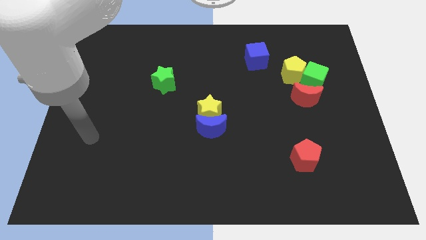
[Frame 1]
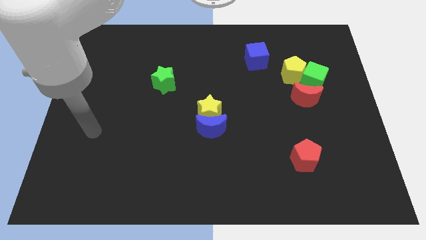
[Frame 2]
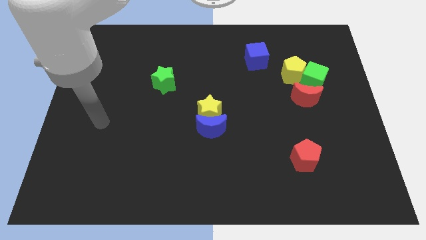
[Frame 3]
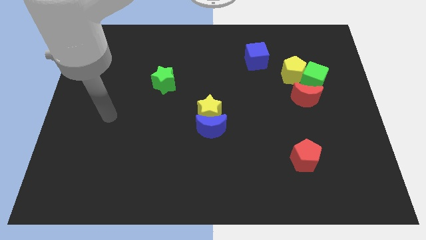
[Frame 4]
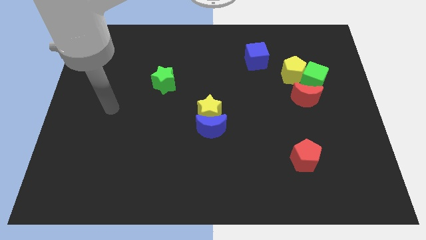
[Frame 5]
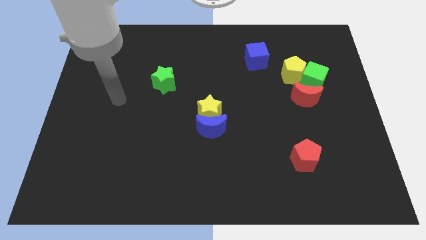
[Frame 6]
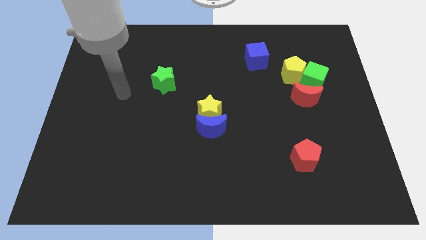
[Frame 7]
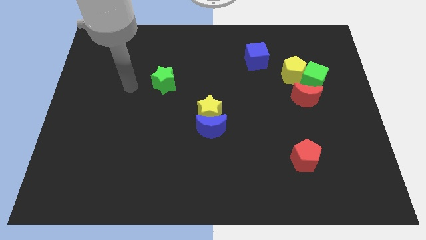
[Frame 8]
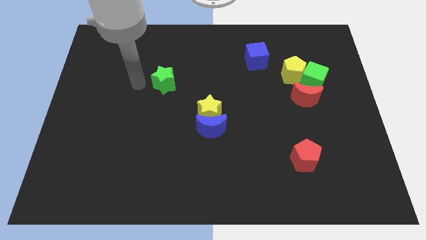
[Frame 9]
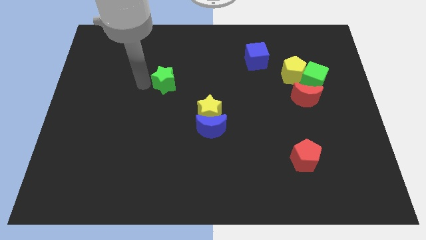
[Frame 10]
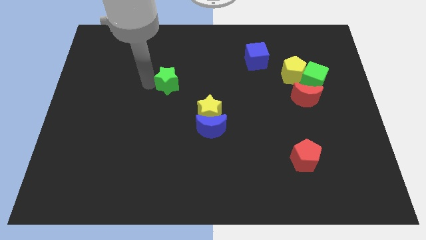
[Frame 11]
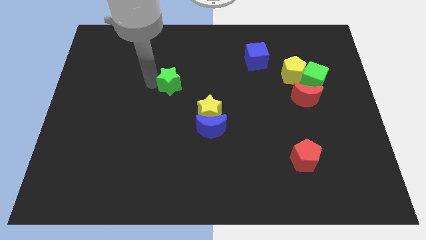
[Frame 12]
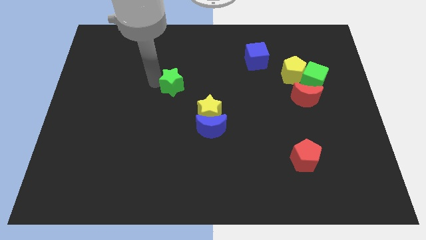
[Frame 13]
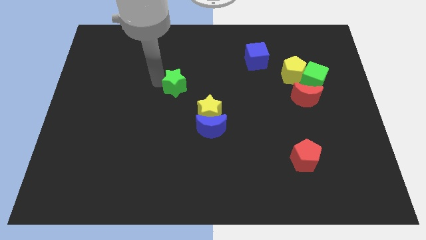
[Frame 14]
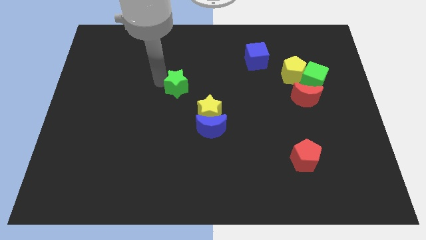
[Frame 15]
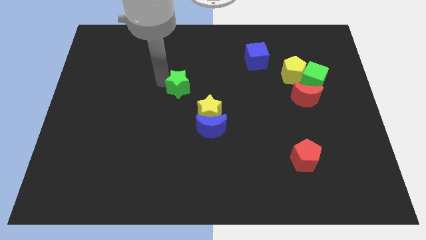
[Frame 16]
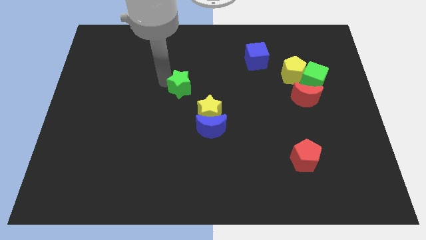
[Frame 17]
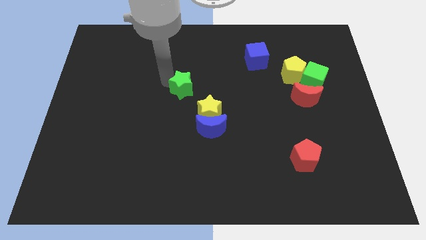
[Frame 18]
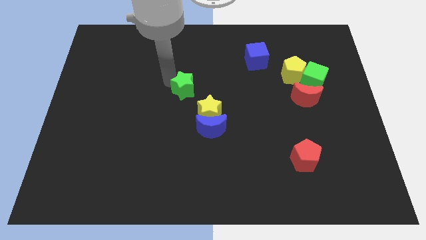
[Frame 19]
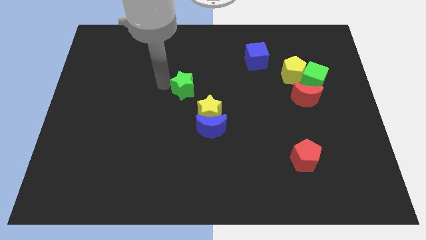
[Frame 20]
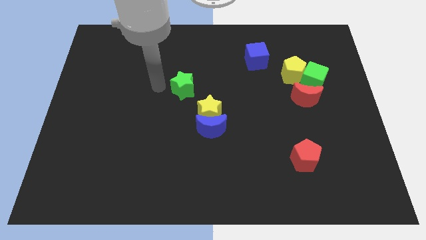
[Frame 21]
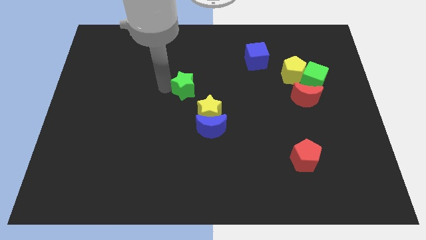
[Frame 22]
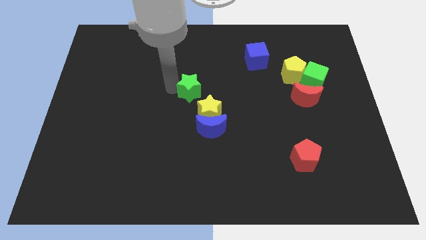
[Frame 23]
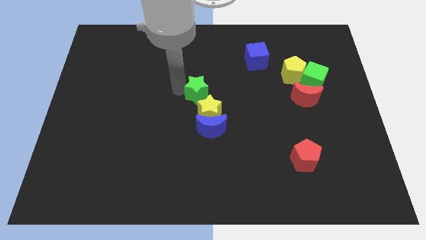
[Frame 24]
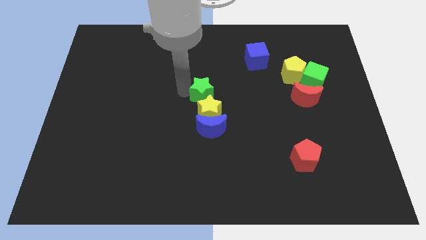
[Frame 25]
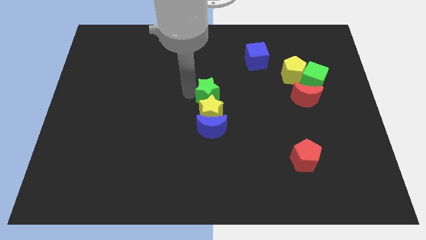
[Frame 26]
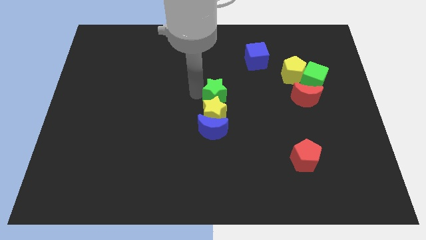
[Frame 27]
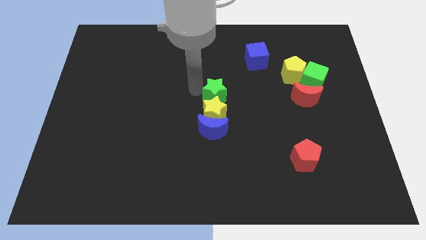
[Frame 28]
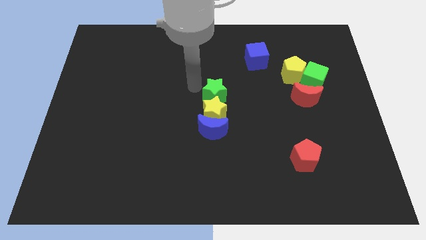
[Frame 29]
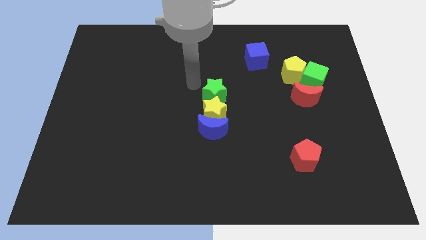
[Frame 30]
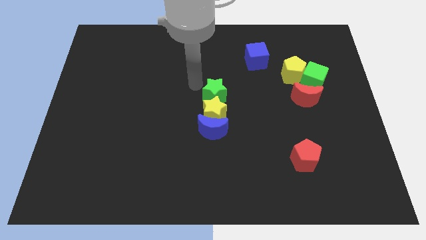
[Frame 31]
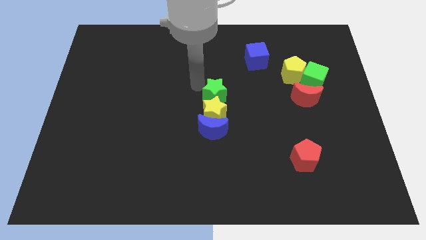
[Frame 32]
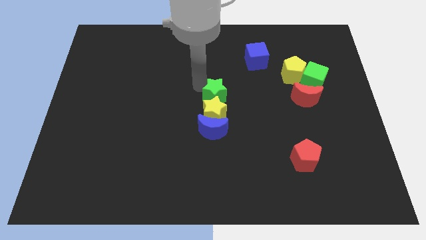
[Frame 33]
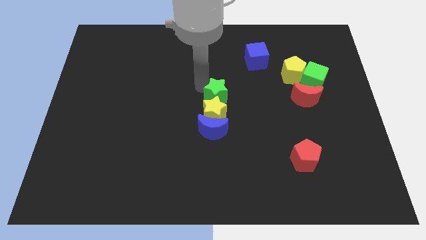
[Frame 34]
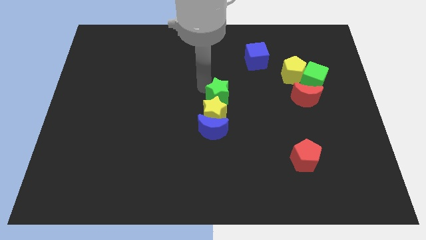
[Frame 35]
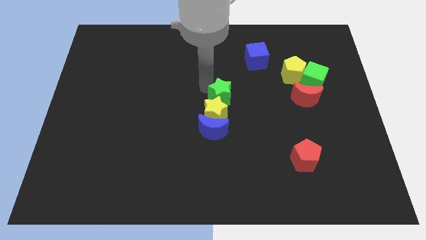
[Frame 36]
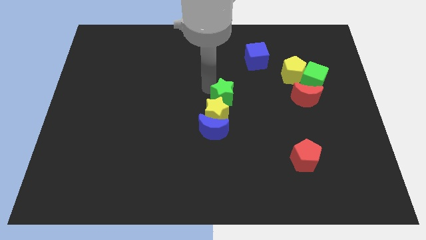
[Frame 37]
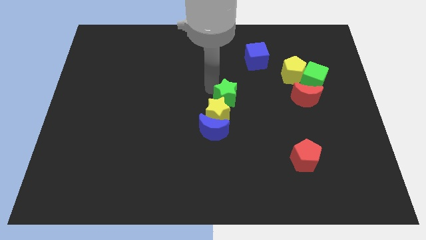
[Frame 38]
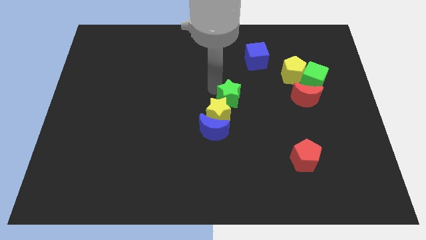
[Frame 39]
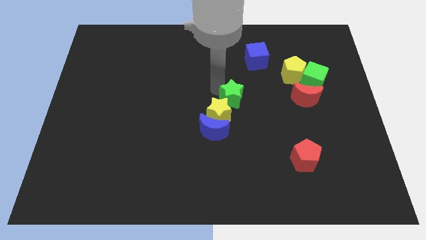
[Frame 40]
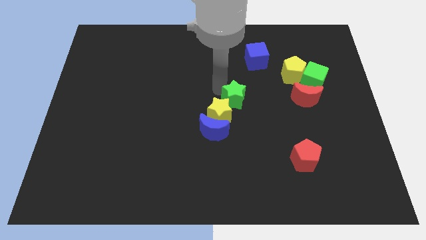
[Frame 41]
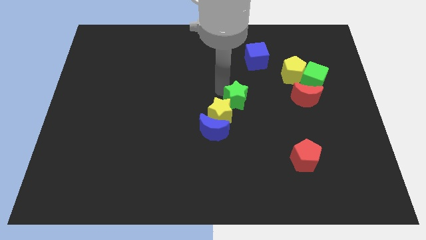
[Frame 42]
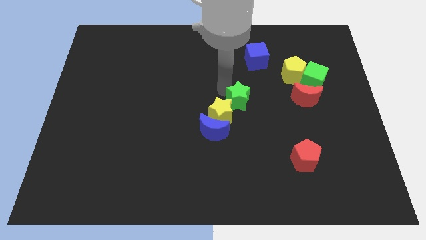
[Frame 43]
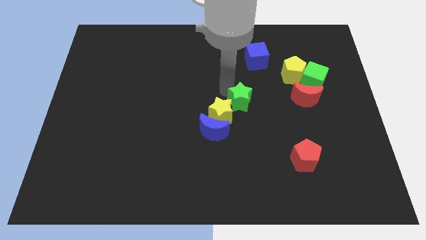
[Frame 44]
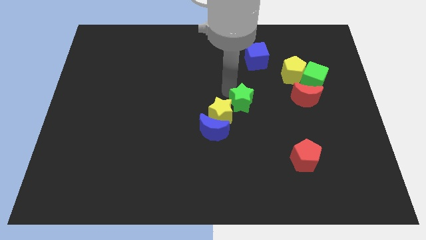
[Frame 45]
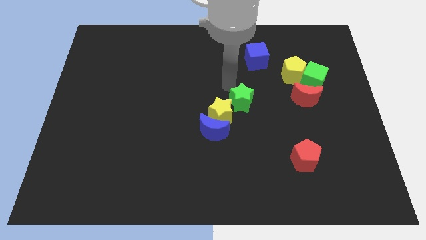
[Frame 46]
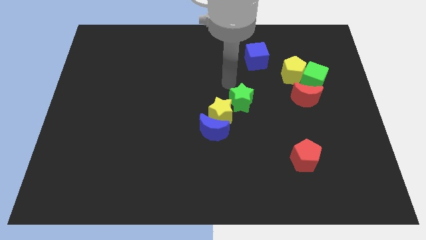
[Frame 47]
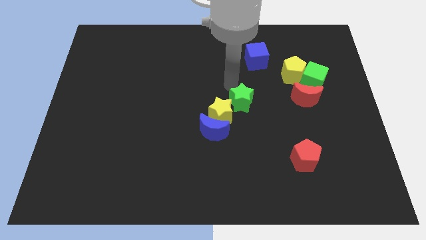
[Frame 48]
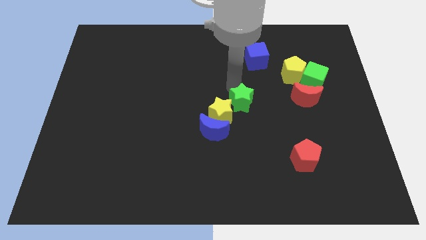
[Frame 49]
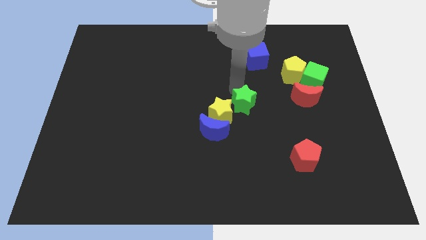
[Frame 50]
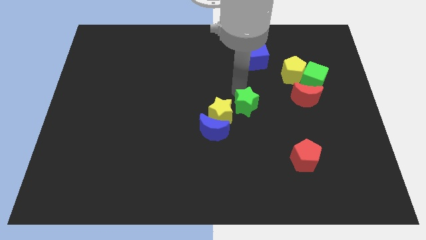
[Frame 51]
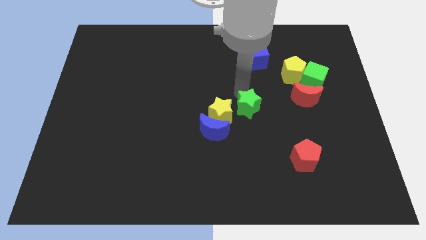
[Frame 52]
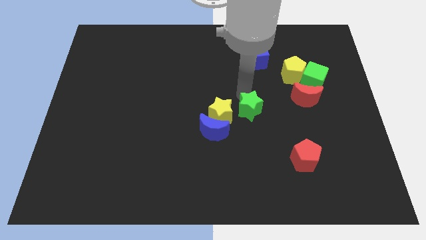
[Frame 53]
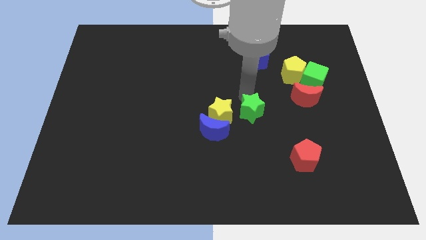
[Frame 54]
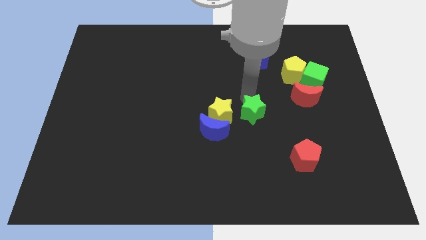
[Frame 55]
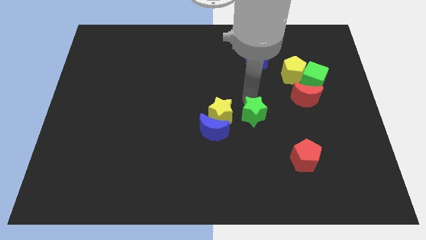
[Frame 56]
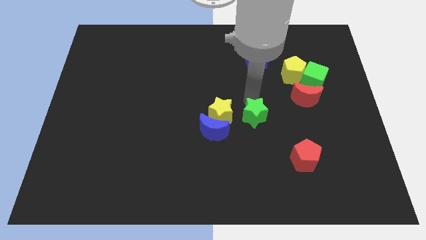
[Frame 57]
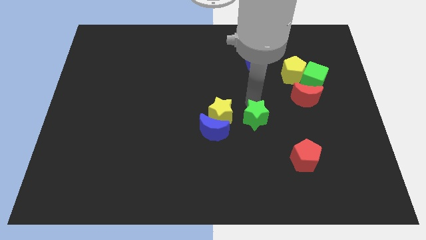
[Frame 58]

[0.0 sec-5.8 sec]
push the green star diagonally down and right

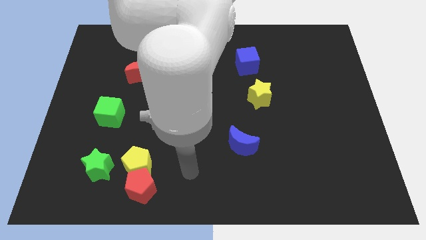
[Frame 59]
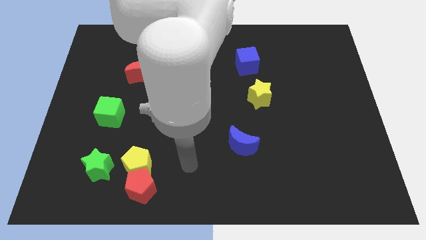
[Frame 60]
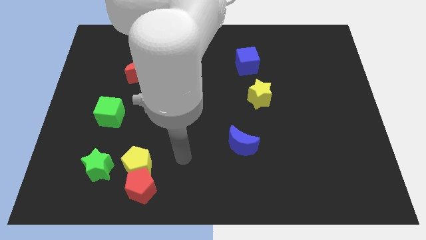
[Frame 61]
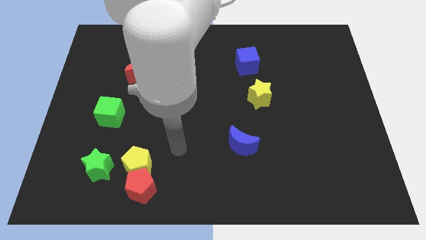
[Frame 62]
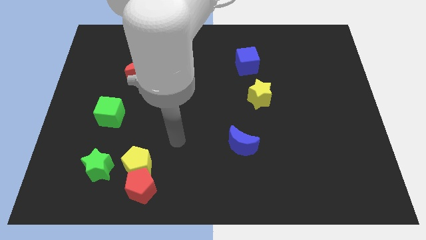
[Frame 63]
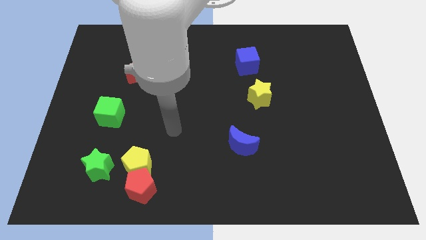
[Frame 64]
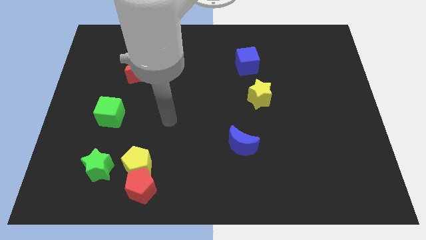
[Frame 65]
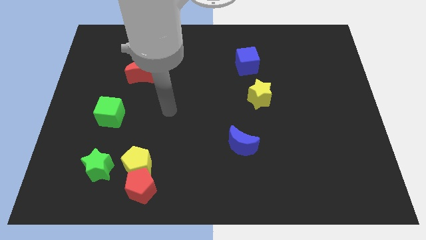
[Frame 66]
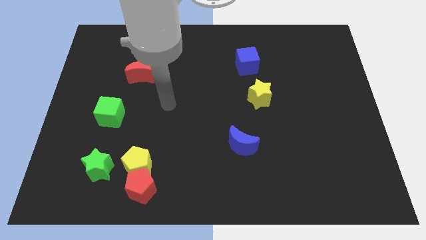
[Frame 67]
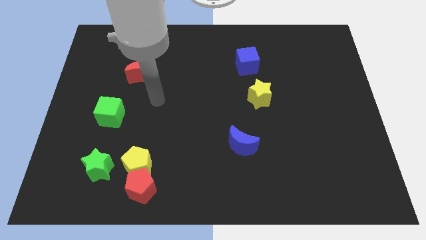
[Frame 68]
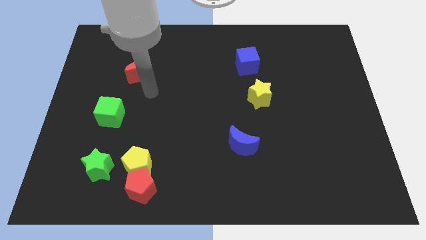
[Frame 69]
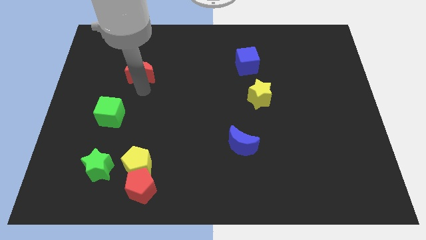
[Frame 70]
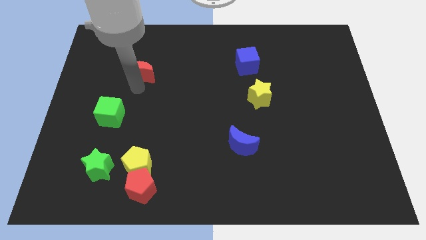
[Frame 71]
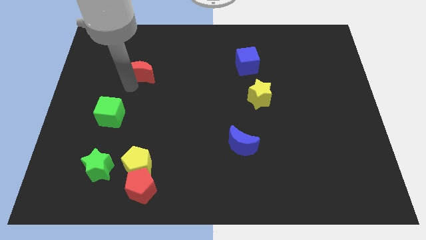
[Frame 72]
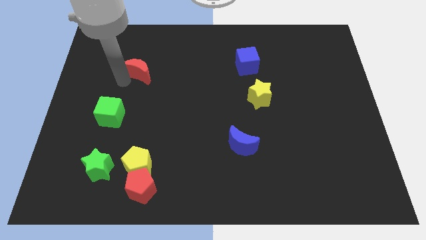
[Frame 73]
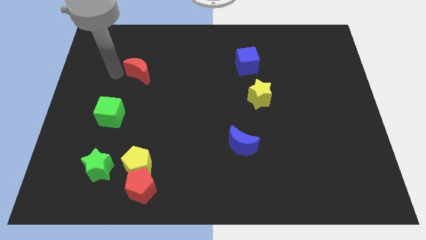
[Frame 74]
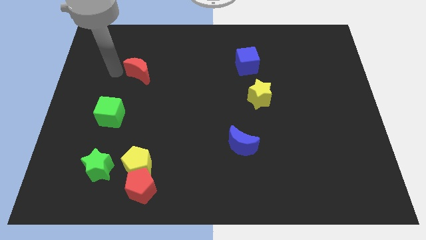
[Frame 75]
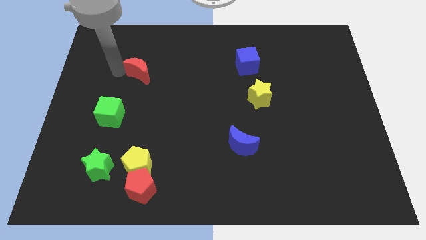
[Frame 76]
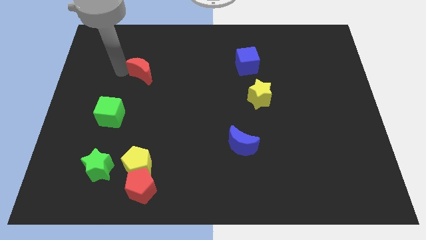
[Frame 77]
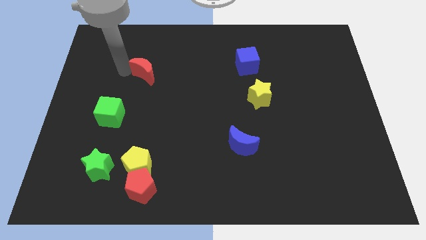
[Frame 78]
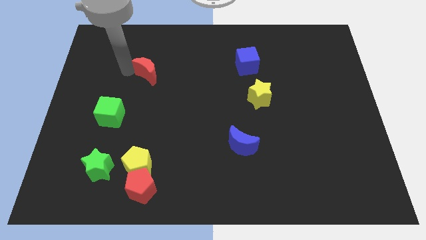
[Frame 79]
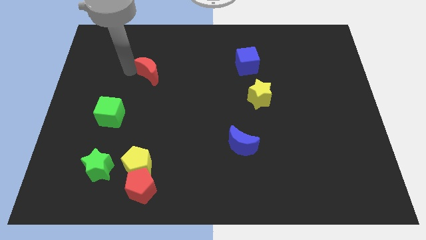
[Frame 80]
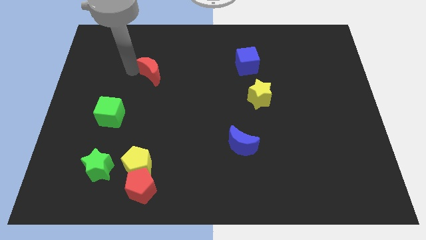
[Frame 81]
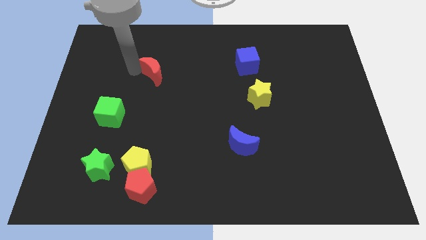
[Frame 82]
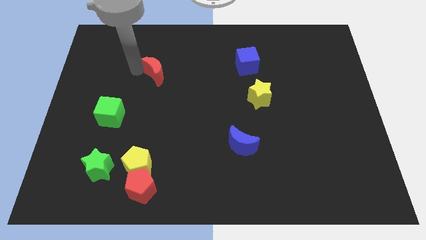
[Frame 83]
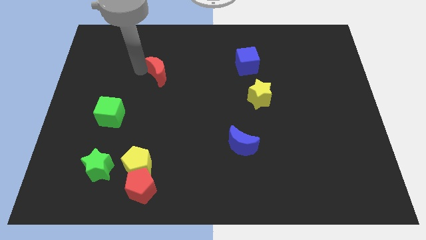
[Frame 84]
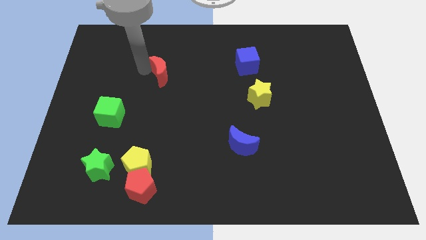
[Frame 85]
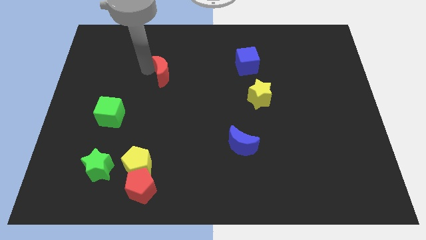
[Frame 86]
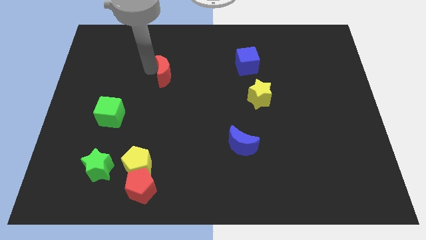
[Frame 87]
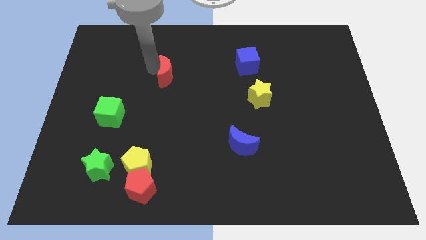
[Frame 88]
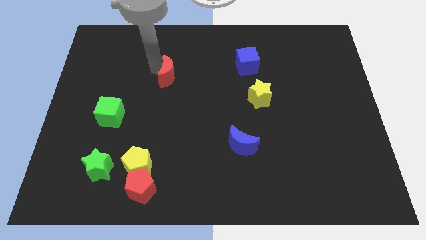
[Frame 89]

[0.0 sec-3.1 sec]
move the red moon a bit to the right
